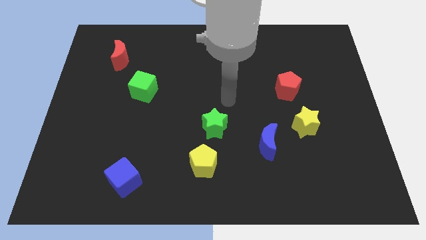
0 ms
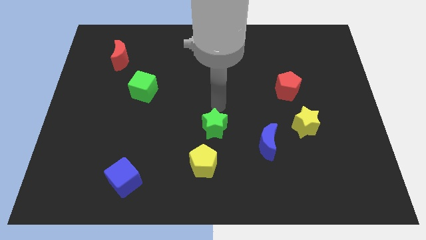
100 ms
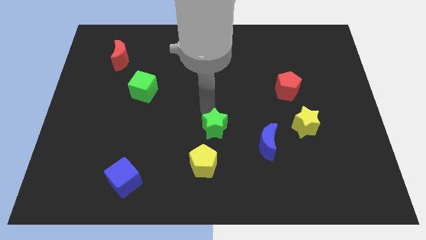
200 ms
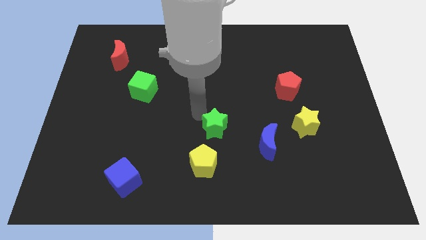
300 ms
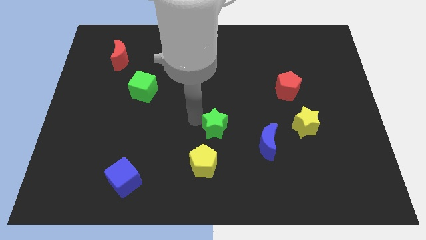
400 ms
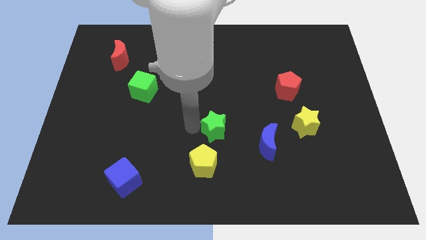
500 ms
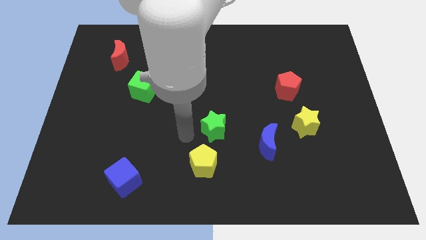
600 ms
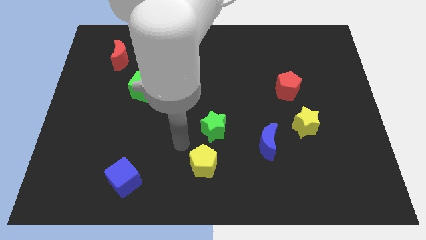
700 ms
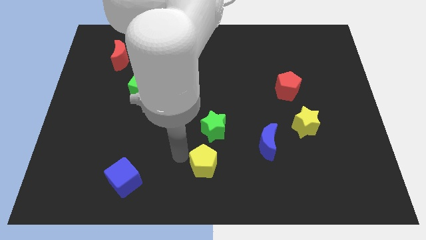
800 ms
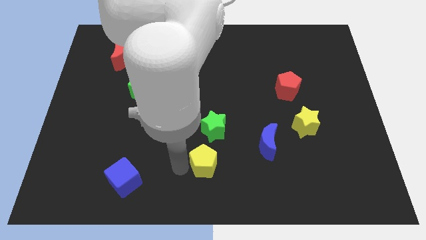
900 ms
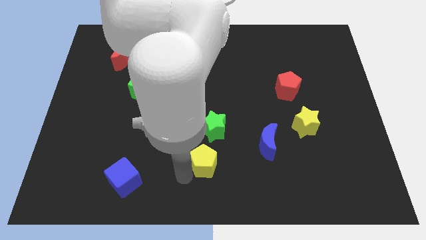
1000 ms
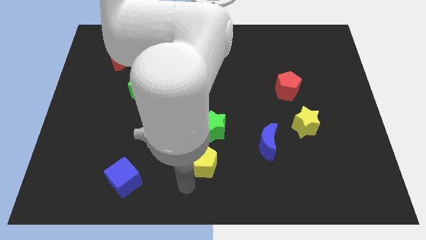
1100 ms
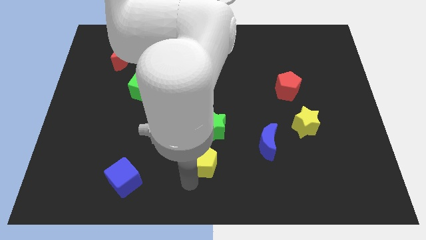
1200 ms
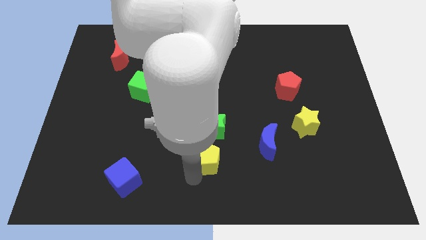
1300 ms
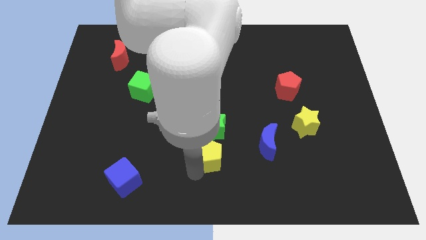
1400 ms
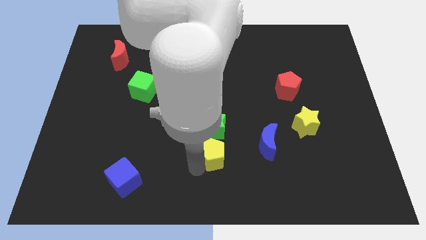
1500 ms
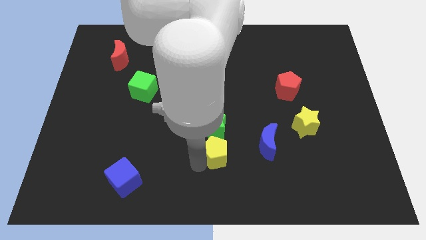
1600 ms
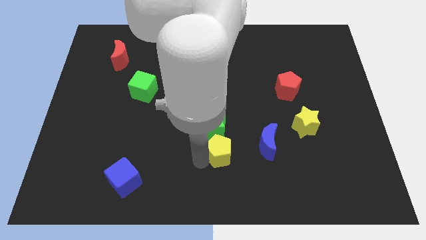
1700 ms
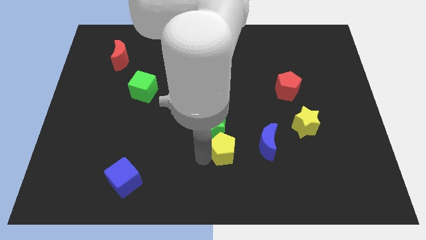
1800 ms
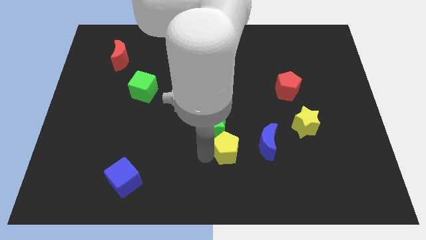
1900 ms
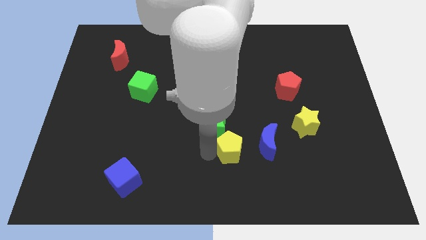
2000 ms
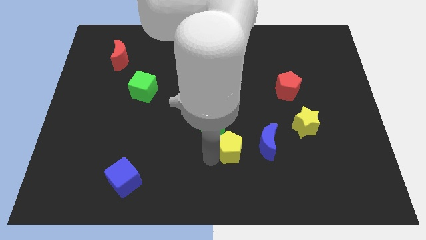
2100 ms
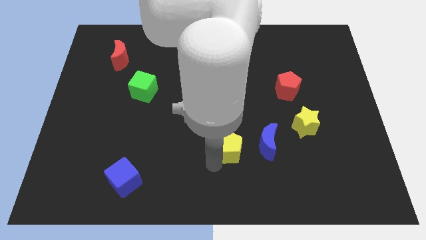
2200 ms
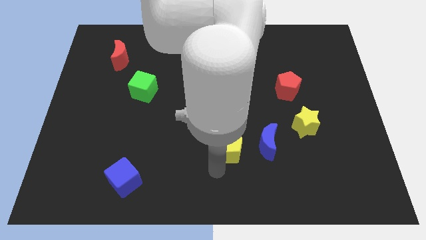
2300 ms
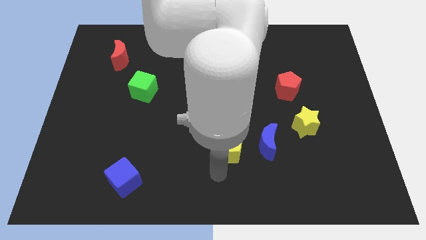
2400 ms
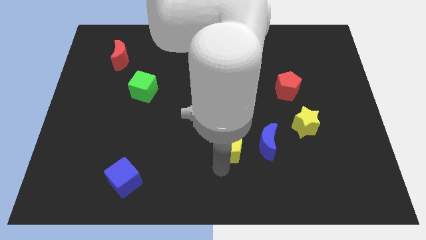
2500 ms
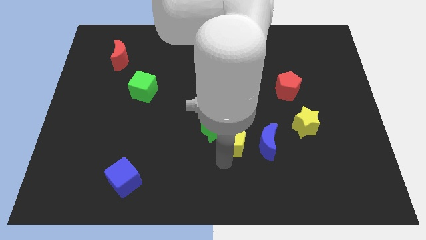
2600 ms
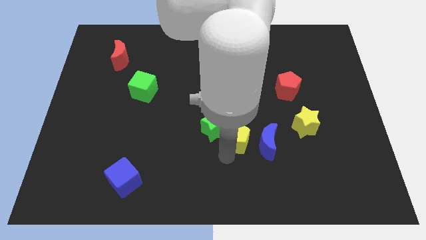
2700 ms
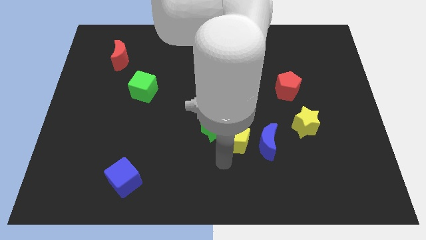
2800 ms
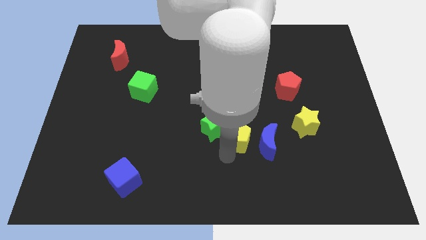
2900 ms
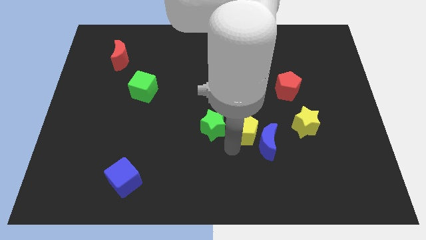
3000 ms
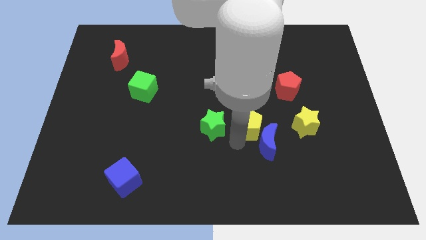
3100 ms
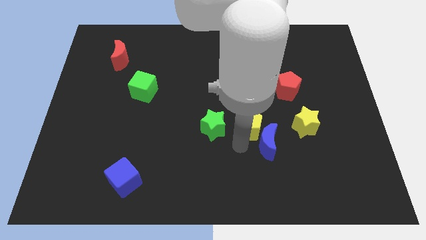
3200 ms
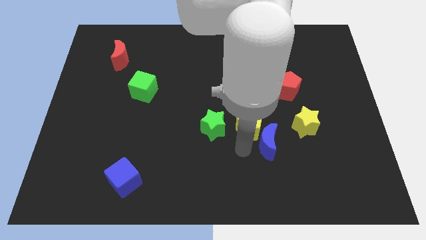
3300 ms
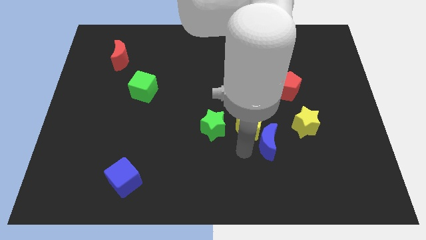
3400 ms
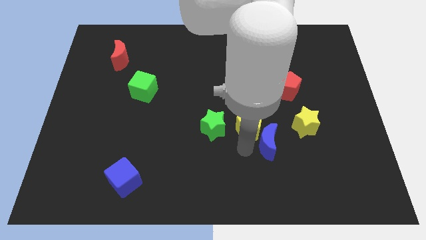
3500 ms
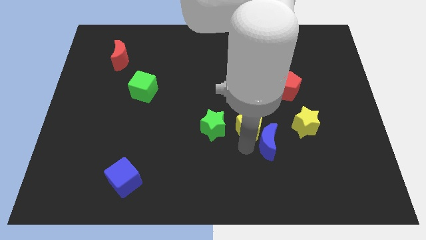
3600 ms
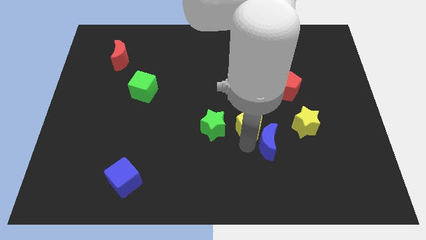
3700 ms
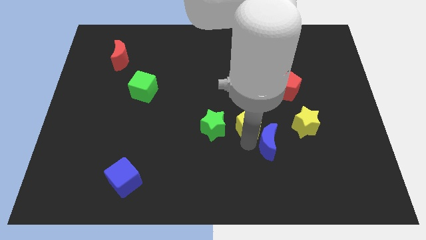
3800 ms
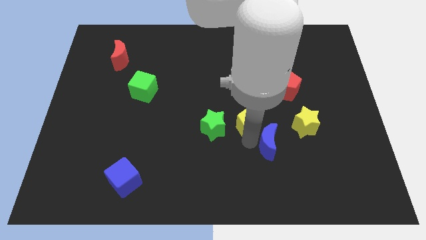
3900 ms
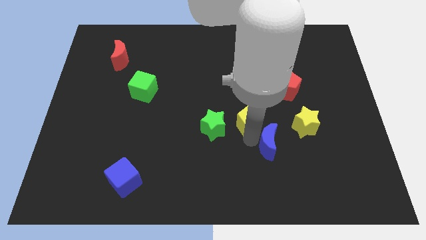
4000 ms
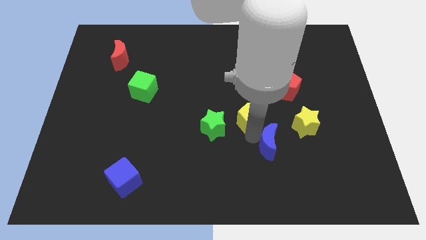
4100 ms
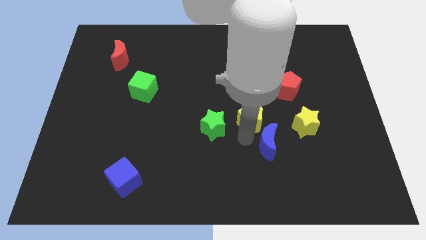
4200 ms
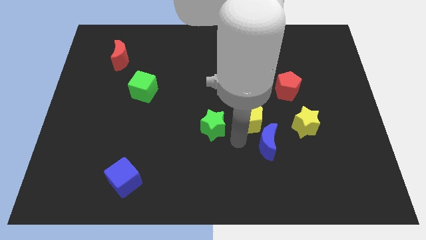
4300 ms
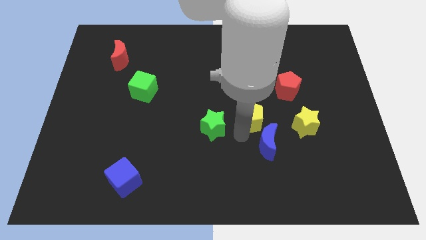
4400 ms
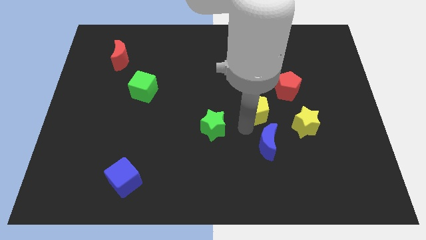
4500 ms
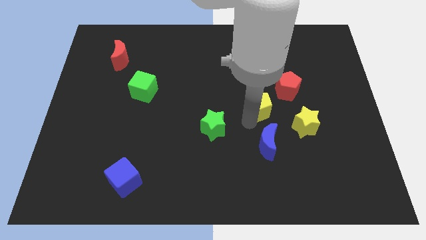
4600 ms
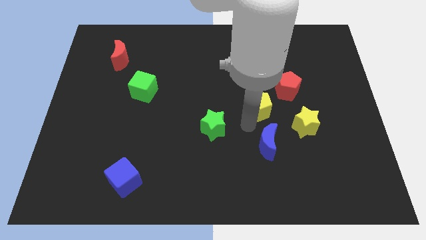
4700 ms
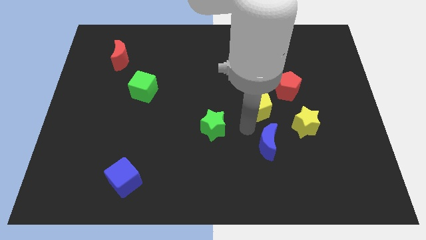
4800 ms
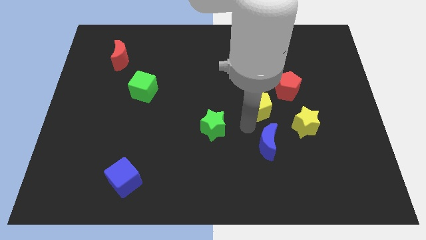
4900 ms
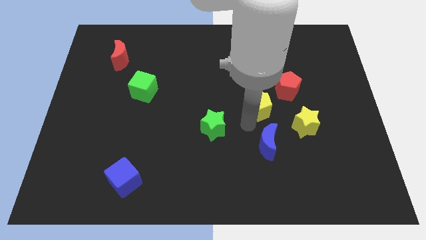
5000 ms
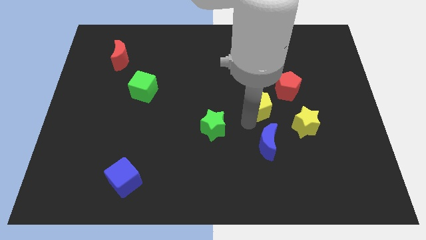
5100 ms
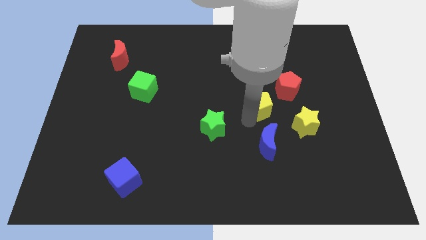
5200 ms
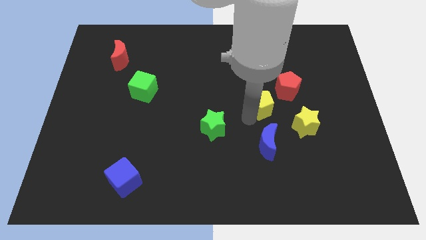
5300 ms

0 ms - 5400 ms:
push the yellow pentagon diagonally up and to the right

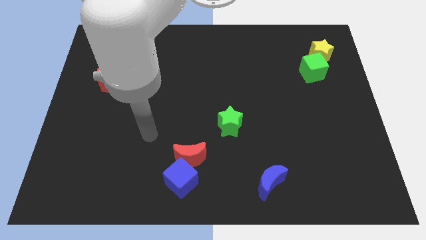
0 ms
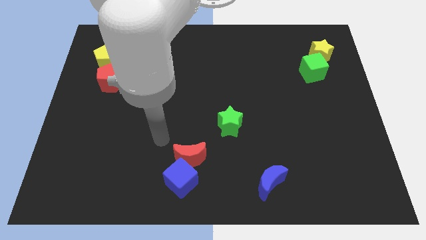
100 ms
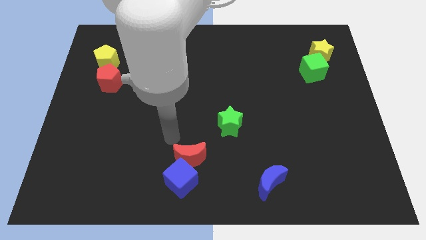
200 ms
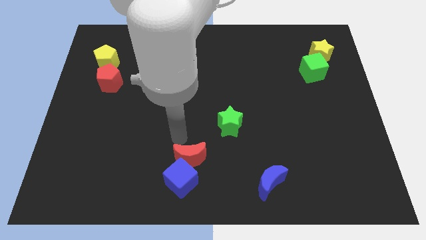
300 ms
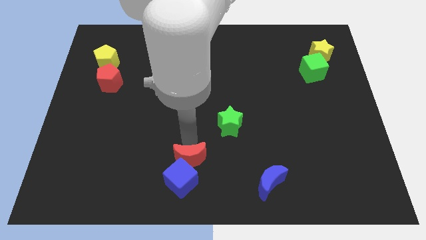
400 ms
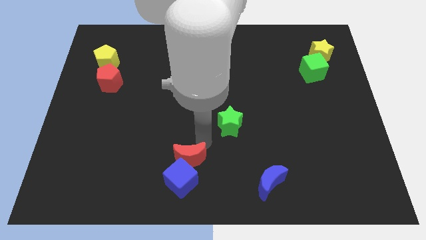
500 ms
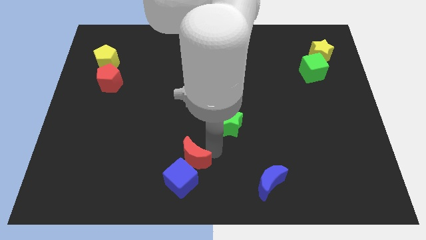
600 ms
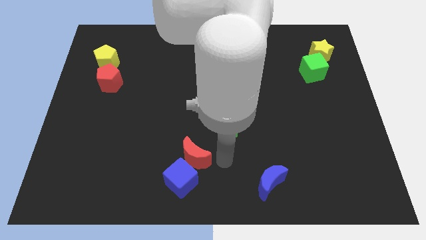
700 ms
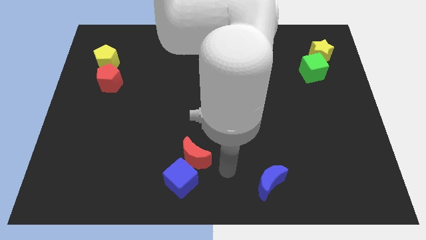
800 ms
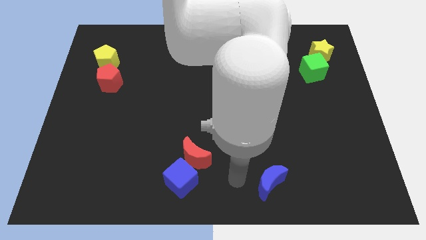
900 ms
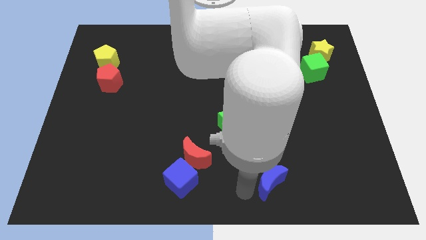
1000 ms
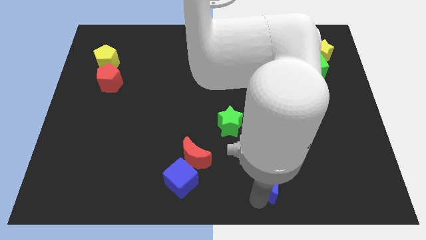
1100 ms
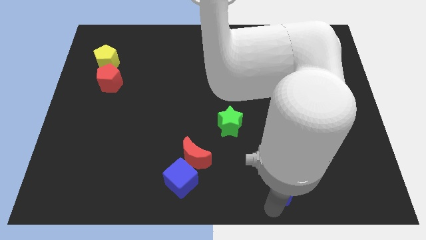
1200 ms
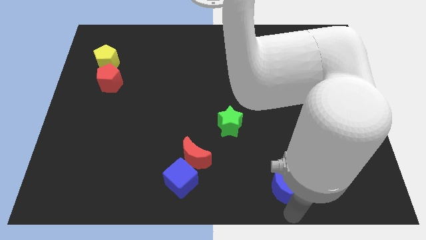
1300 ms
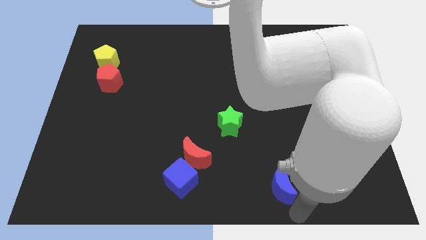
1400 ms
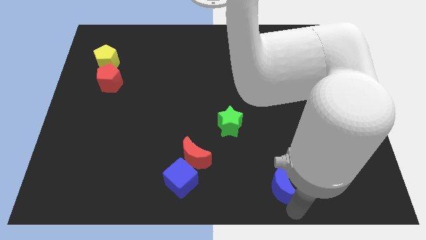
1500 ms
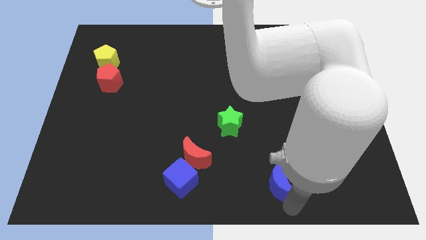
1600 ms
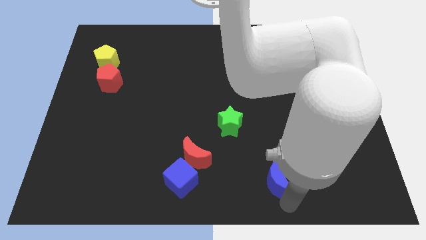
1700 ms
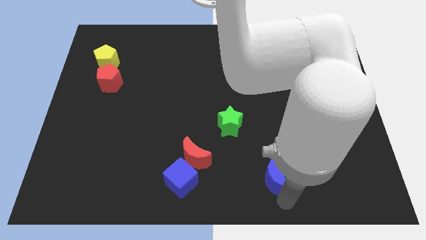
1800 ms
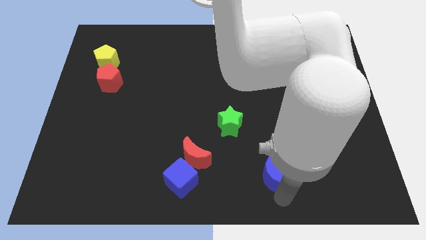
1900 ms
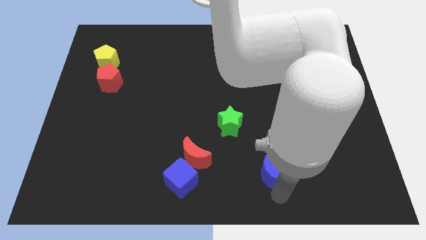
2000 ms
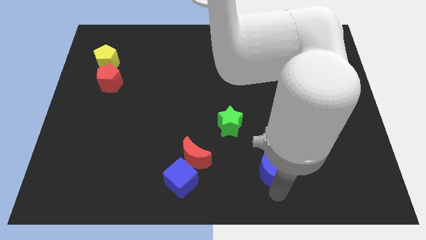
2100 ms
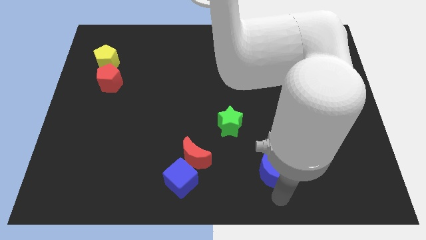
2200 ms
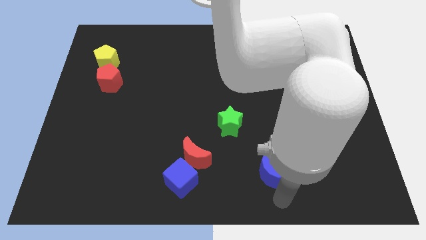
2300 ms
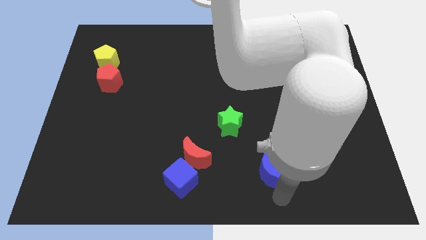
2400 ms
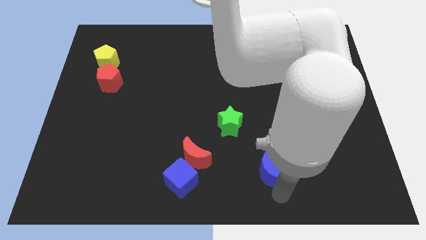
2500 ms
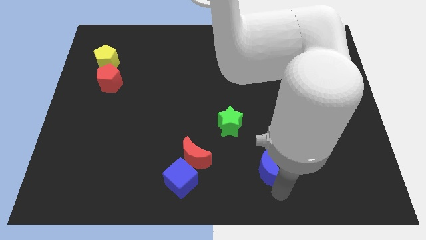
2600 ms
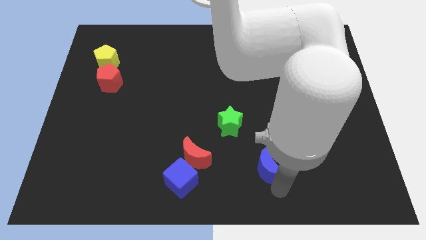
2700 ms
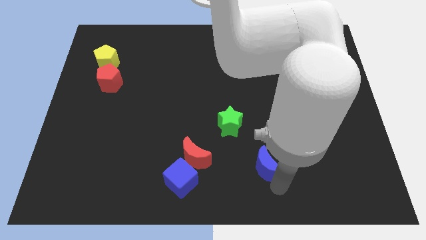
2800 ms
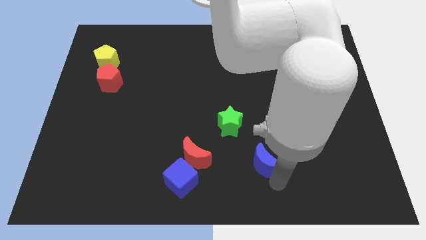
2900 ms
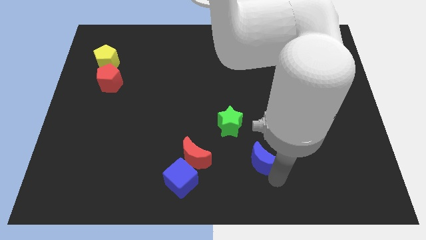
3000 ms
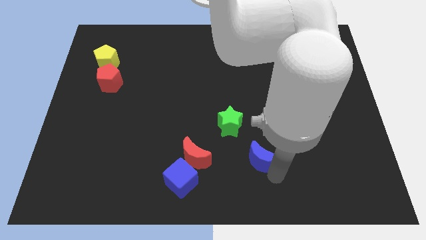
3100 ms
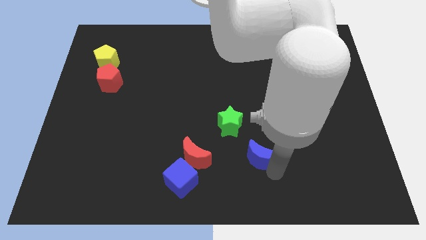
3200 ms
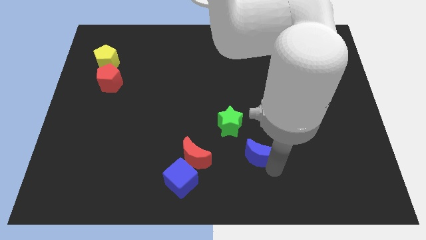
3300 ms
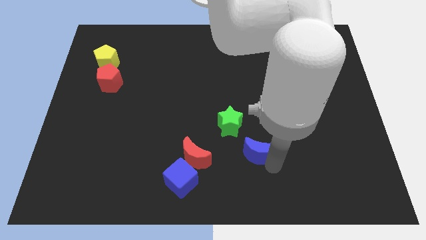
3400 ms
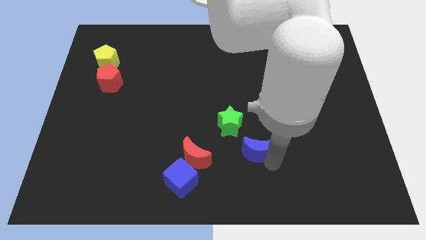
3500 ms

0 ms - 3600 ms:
push the blue moon up slightly
